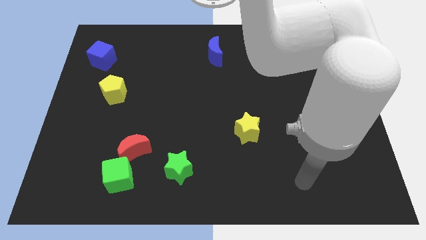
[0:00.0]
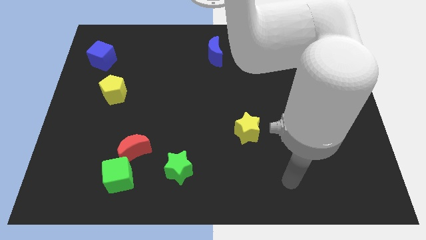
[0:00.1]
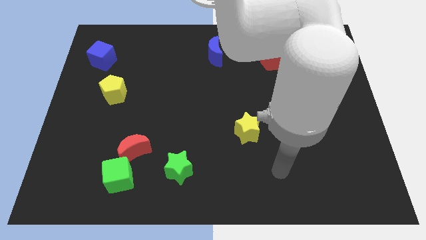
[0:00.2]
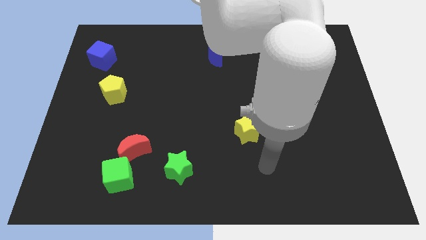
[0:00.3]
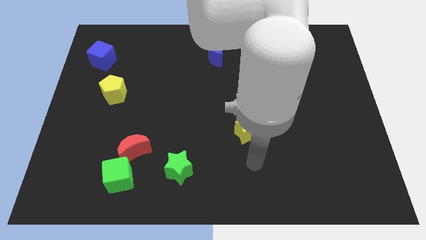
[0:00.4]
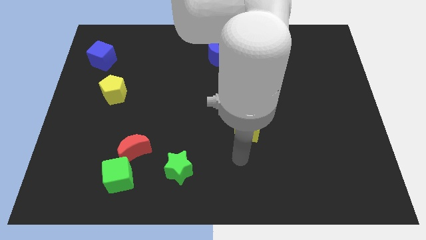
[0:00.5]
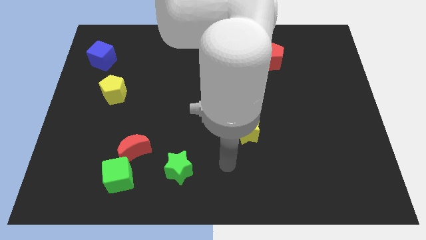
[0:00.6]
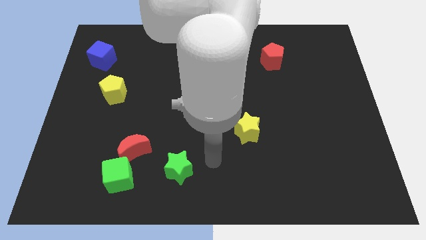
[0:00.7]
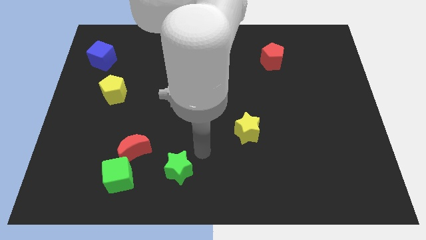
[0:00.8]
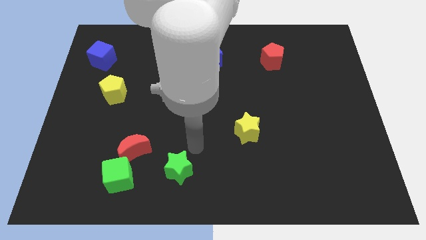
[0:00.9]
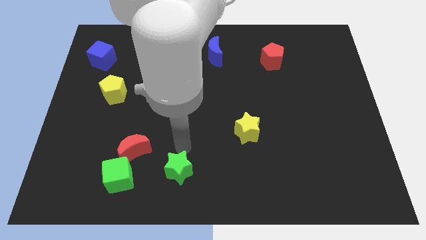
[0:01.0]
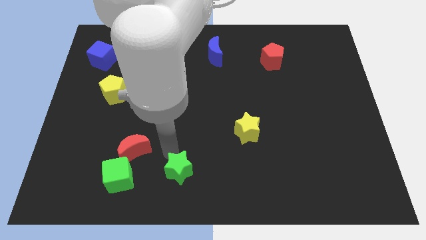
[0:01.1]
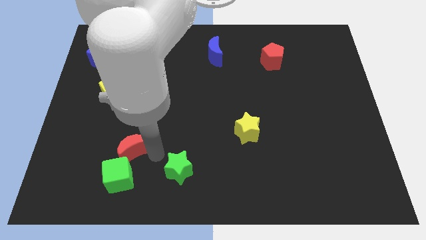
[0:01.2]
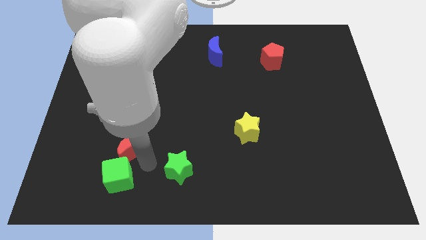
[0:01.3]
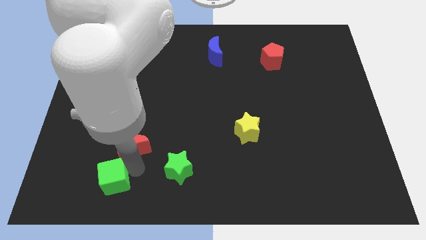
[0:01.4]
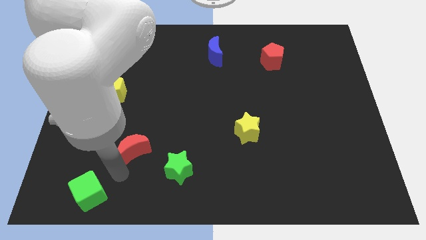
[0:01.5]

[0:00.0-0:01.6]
separate the red moon from the green cube

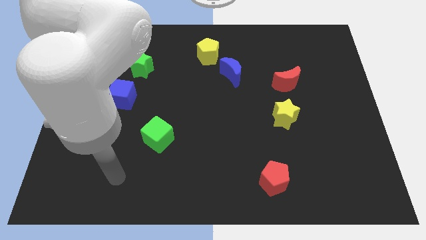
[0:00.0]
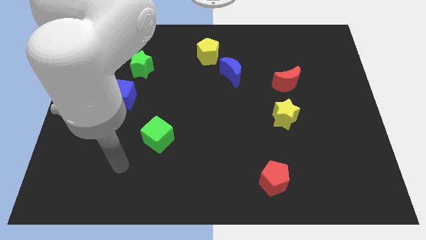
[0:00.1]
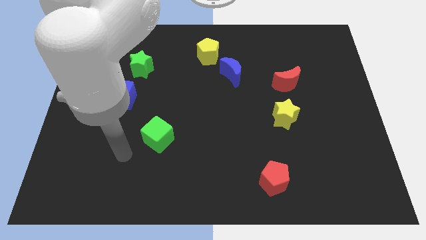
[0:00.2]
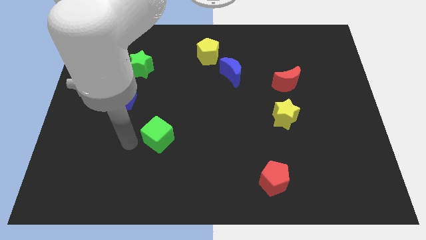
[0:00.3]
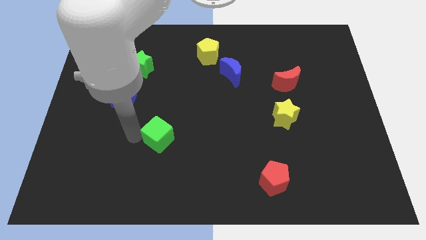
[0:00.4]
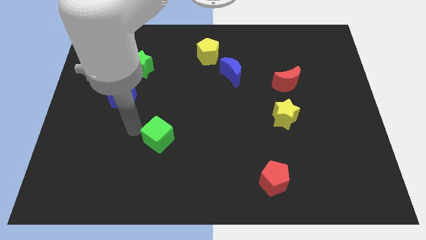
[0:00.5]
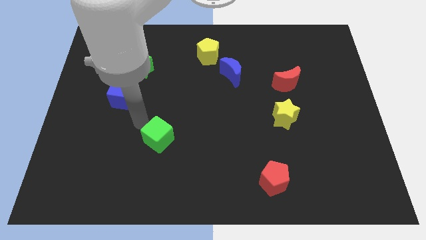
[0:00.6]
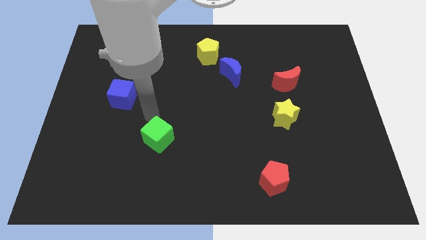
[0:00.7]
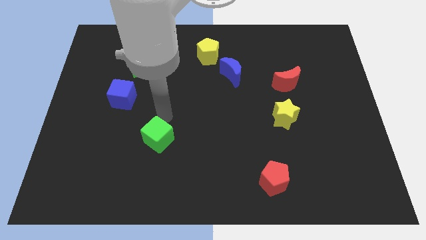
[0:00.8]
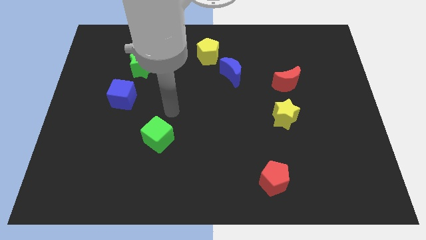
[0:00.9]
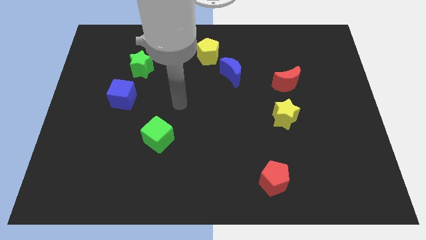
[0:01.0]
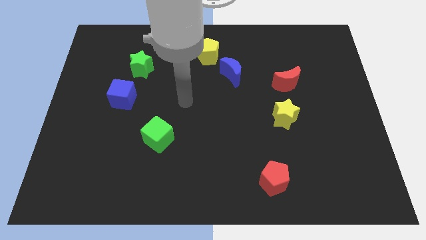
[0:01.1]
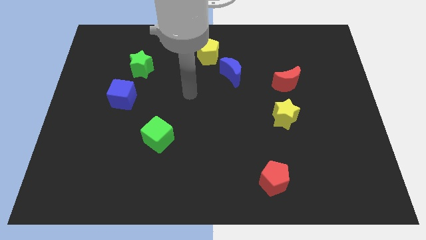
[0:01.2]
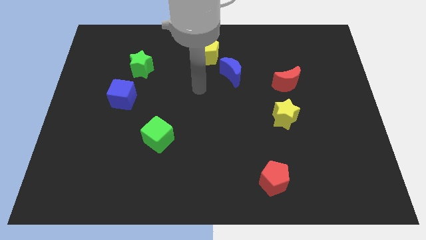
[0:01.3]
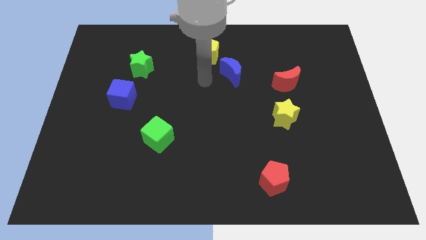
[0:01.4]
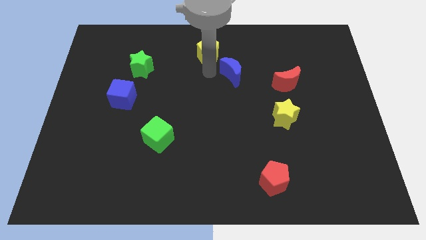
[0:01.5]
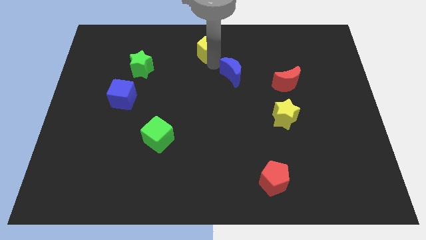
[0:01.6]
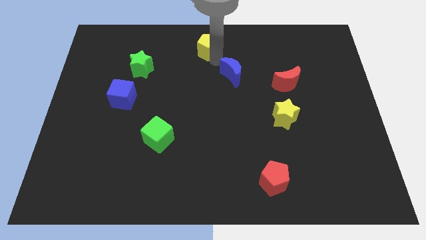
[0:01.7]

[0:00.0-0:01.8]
pull the blue moon apart from the yellow pentagon

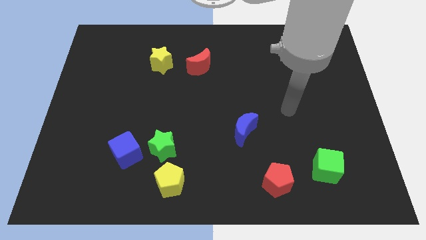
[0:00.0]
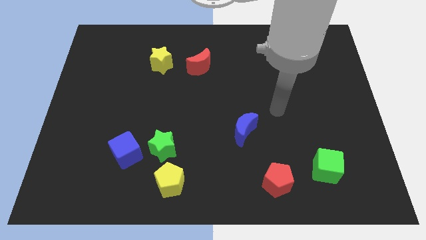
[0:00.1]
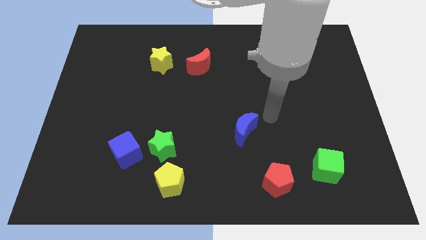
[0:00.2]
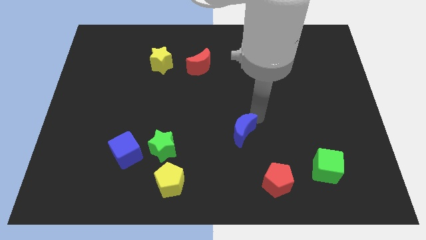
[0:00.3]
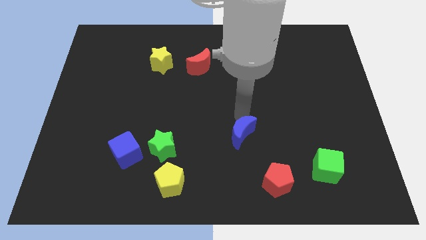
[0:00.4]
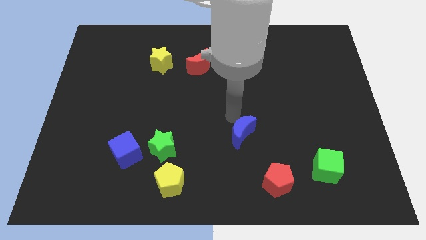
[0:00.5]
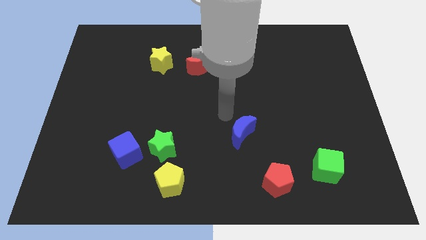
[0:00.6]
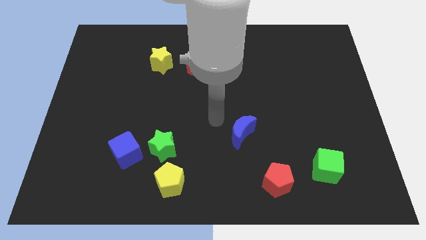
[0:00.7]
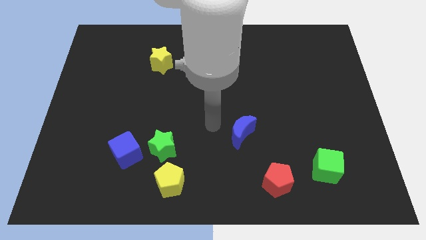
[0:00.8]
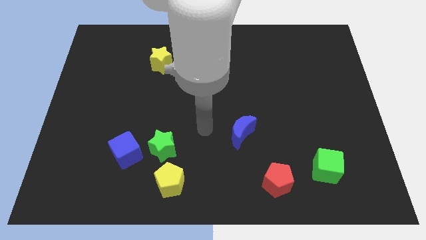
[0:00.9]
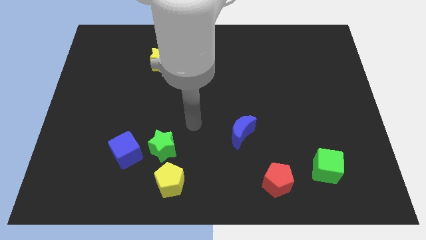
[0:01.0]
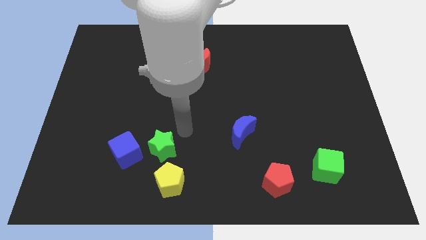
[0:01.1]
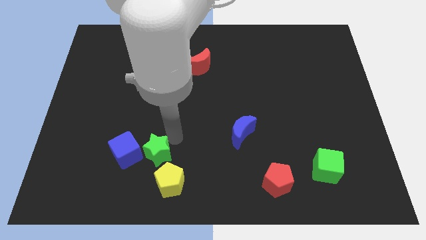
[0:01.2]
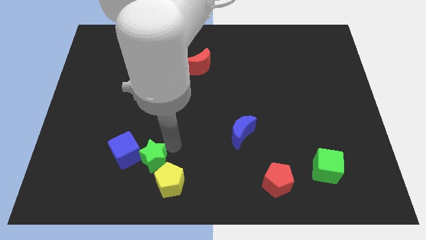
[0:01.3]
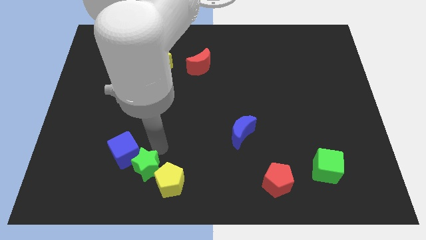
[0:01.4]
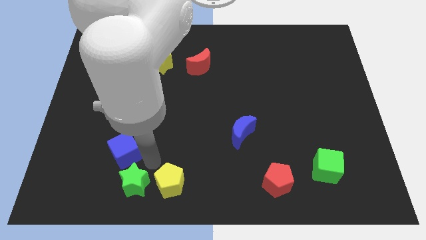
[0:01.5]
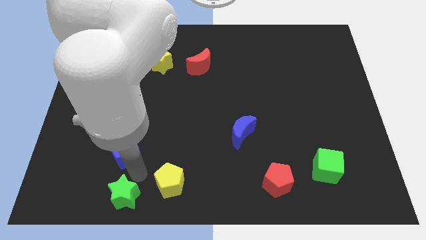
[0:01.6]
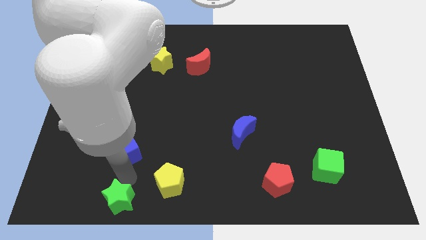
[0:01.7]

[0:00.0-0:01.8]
separate the blue cube from the green star

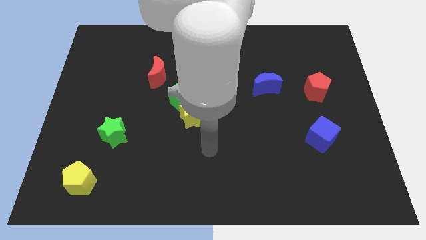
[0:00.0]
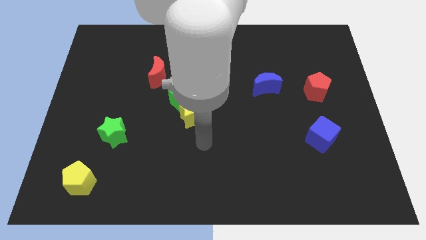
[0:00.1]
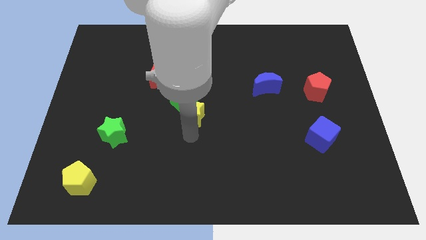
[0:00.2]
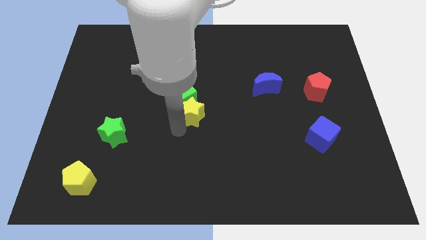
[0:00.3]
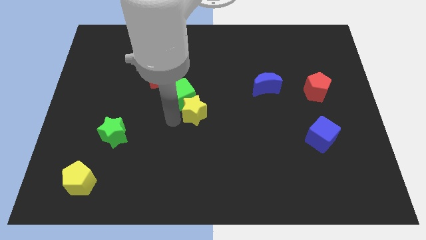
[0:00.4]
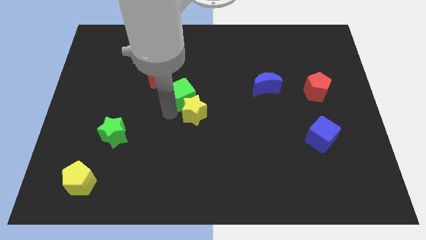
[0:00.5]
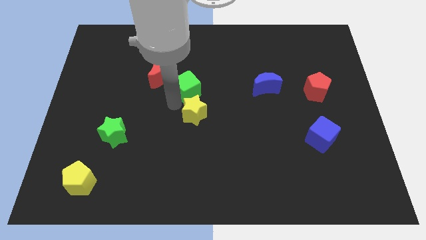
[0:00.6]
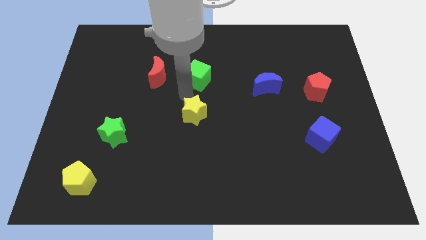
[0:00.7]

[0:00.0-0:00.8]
move the yellow star away from the green cube

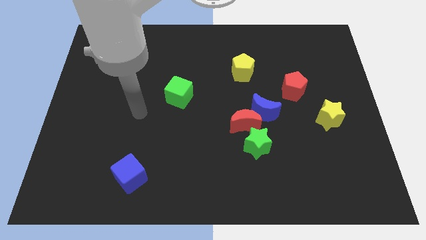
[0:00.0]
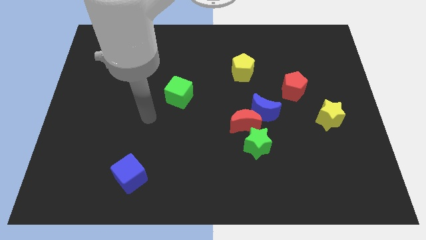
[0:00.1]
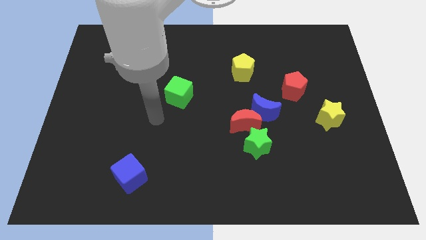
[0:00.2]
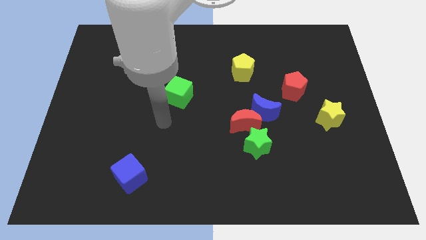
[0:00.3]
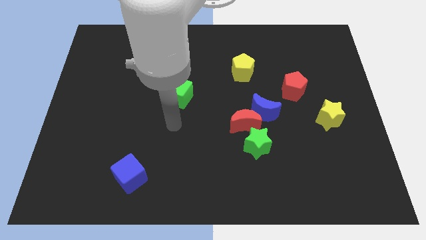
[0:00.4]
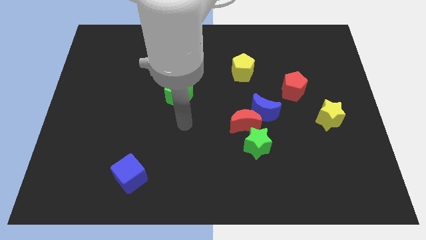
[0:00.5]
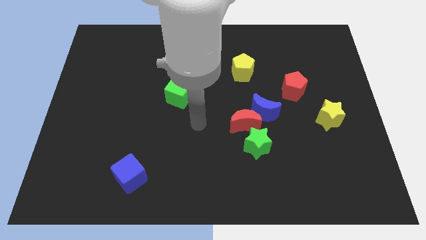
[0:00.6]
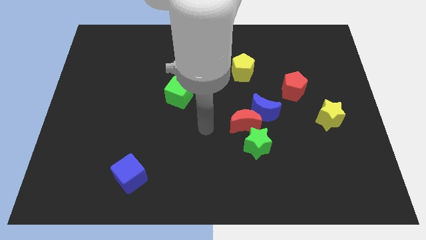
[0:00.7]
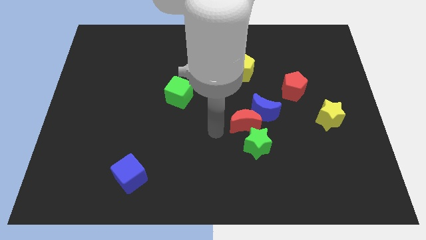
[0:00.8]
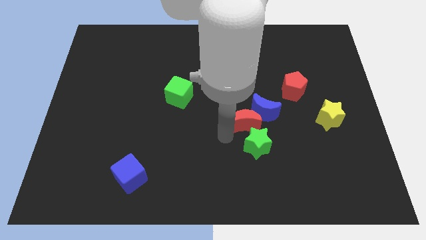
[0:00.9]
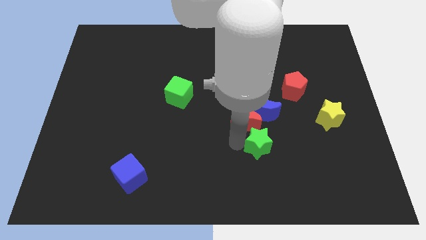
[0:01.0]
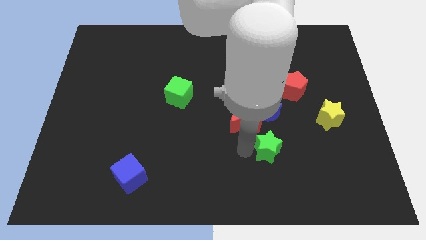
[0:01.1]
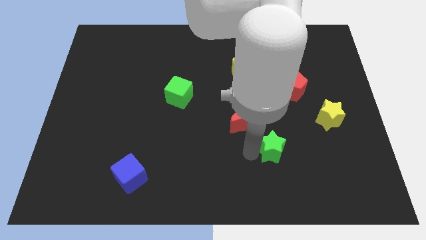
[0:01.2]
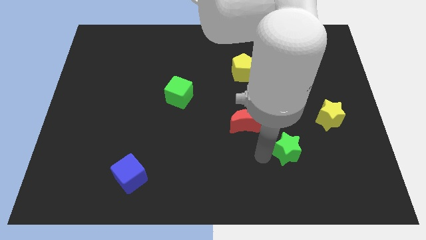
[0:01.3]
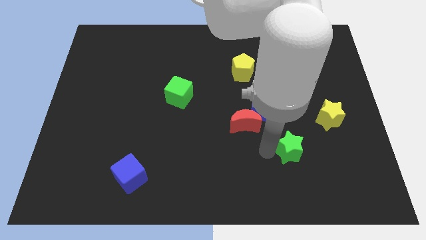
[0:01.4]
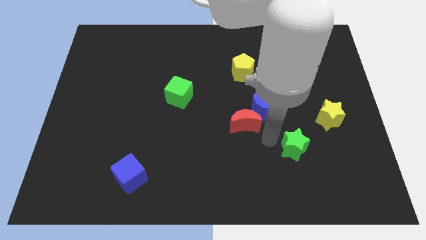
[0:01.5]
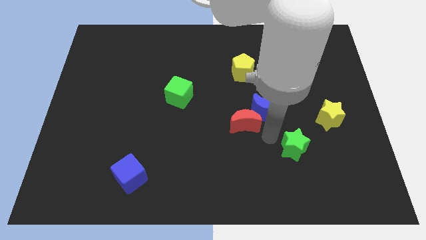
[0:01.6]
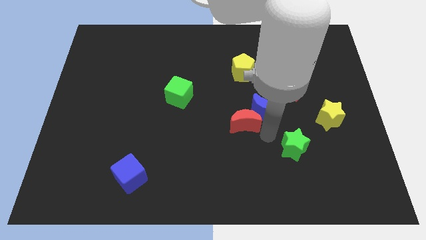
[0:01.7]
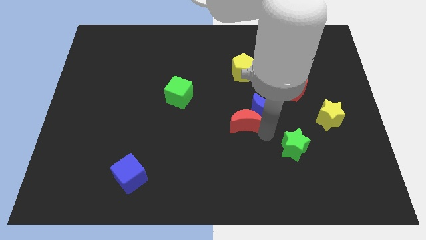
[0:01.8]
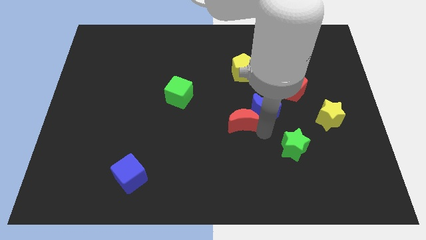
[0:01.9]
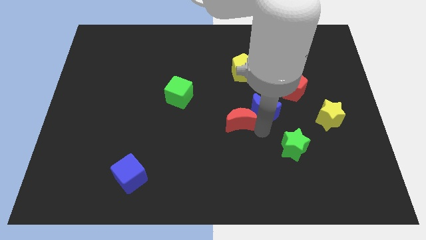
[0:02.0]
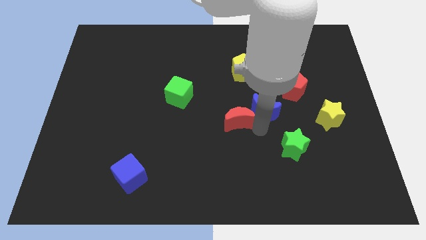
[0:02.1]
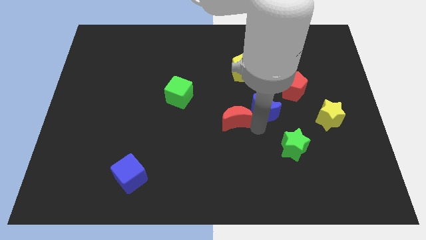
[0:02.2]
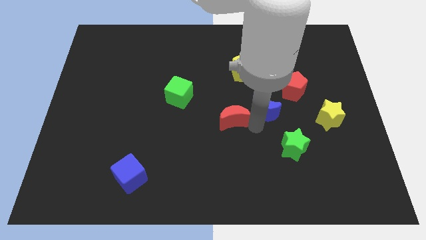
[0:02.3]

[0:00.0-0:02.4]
separate the red moon from the blue moon and green star

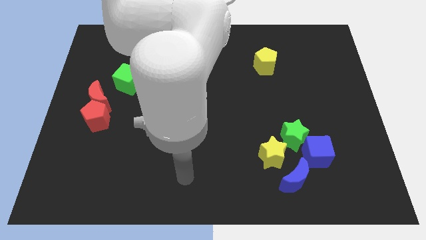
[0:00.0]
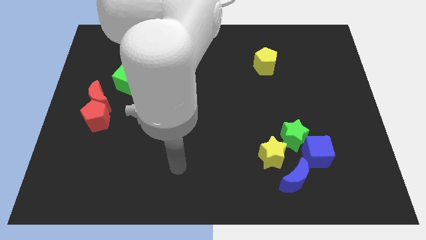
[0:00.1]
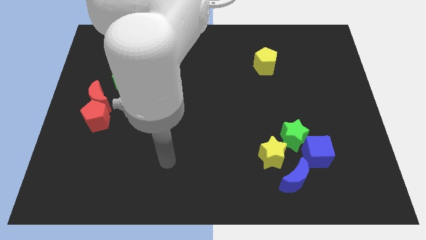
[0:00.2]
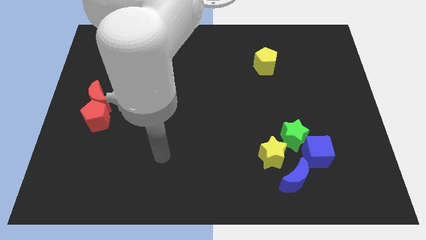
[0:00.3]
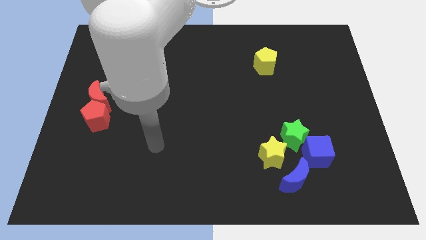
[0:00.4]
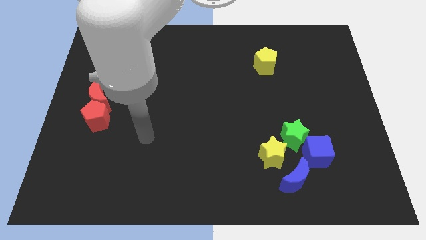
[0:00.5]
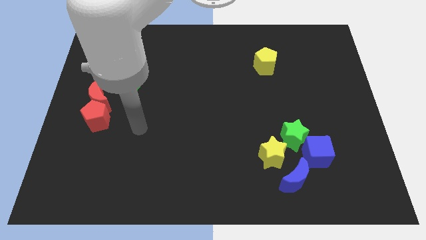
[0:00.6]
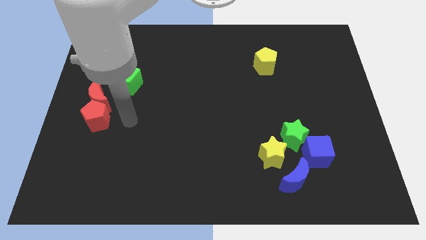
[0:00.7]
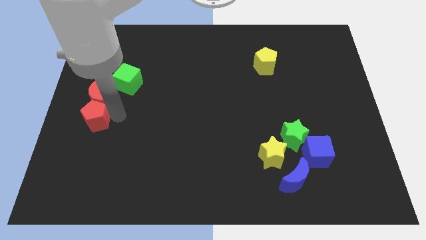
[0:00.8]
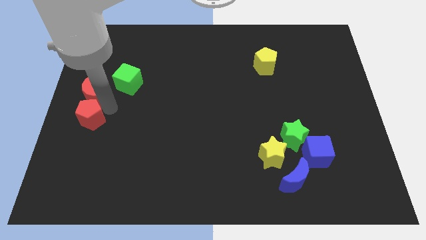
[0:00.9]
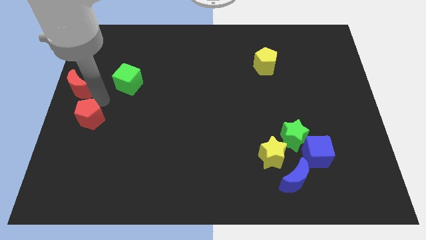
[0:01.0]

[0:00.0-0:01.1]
pull the red pentagon apart from the red moon

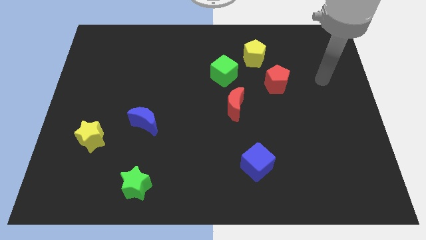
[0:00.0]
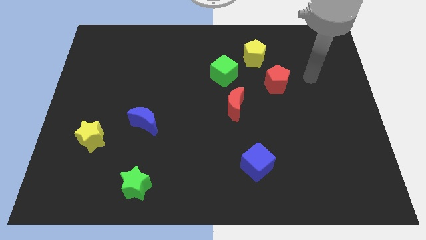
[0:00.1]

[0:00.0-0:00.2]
pull the green cube apart from the yellow pentagon
